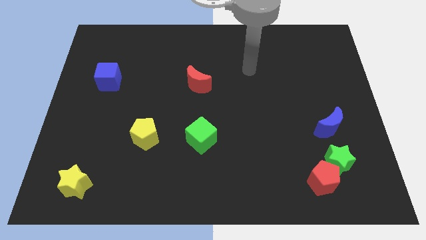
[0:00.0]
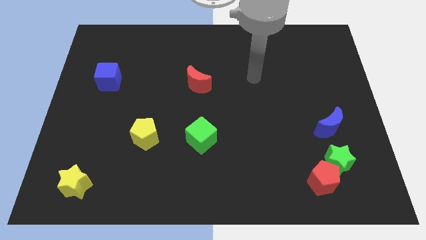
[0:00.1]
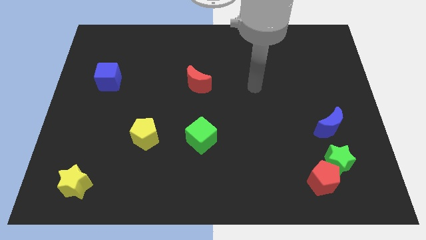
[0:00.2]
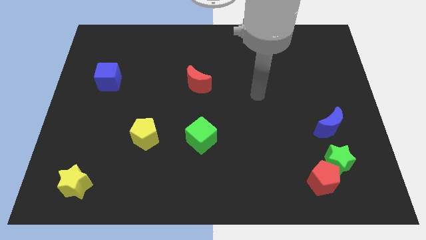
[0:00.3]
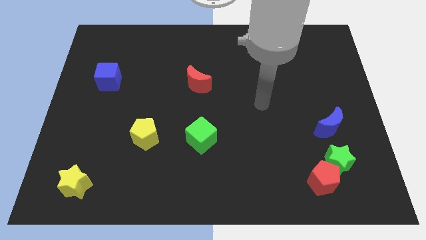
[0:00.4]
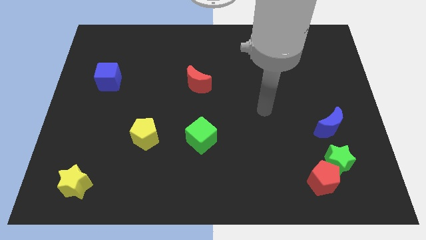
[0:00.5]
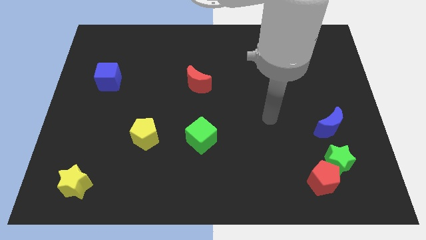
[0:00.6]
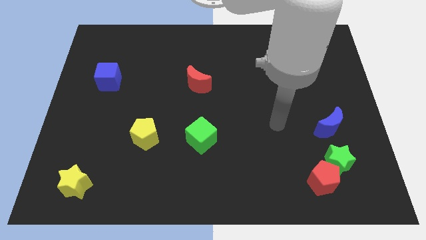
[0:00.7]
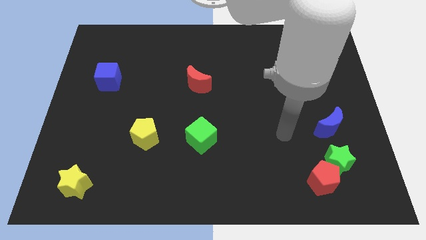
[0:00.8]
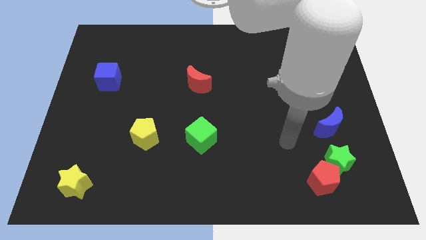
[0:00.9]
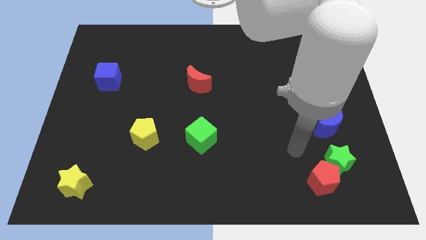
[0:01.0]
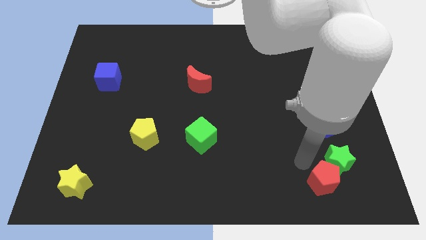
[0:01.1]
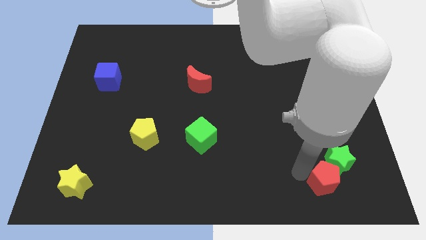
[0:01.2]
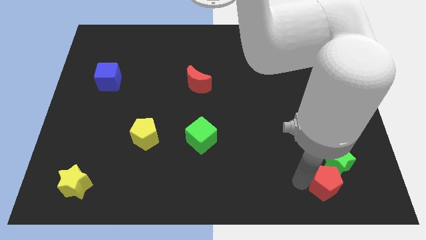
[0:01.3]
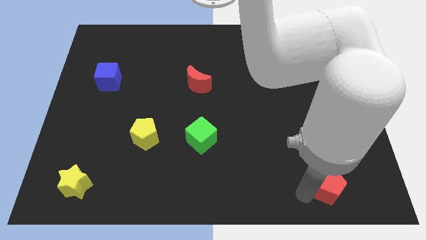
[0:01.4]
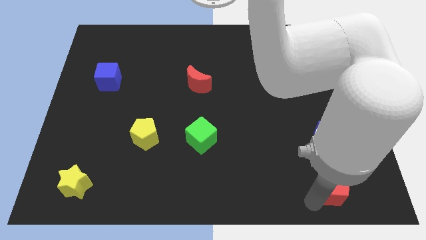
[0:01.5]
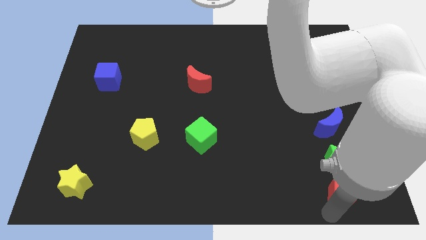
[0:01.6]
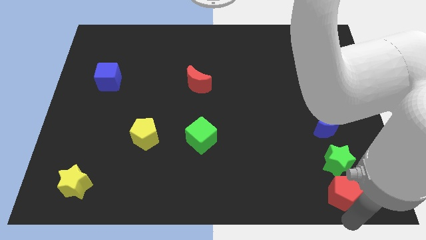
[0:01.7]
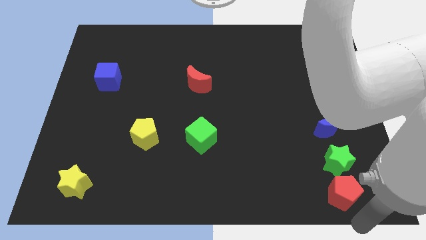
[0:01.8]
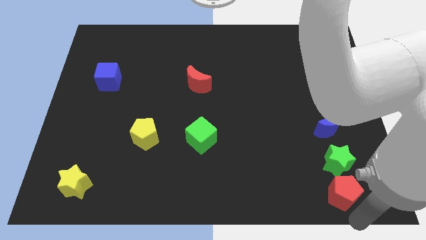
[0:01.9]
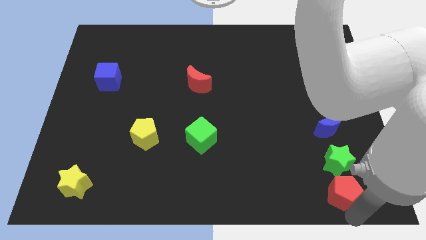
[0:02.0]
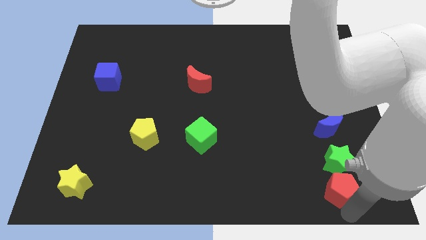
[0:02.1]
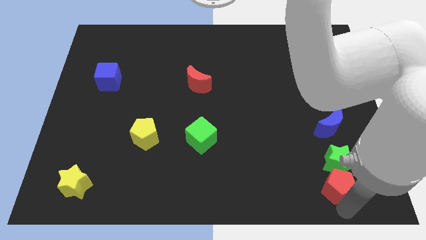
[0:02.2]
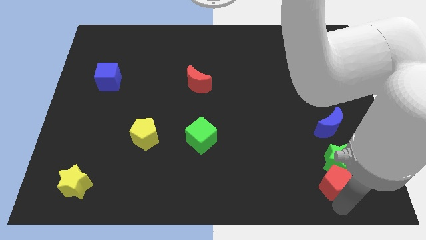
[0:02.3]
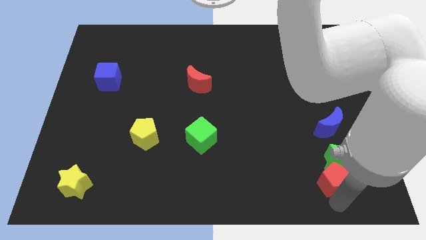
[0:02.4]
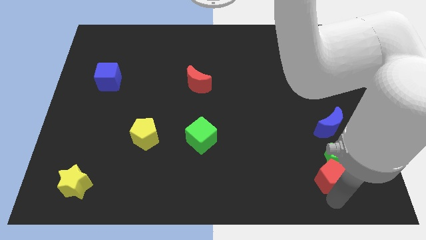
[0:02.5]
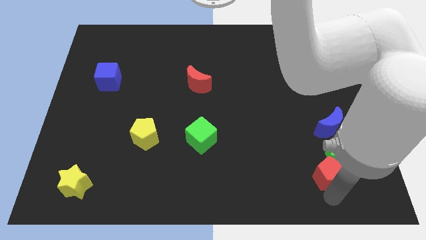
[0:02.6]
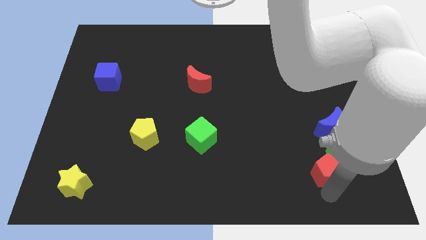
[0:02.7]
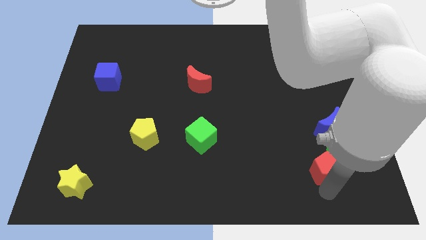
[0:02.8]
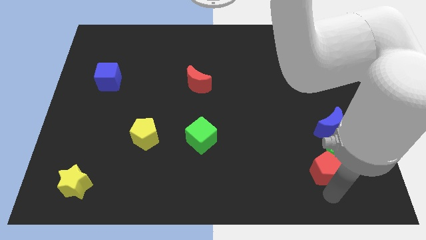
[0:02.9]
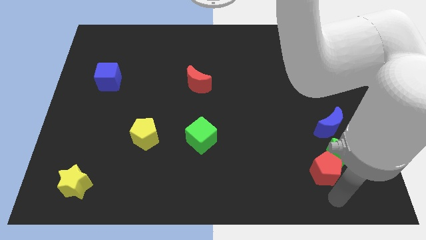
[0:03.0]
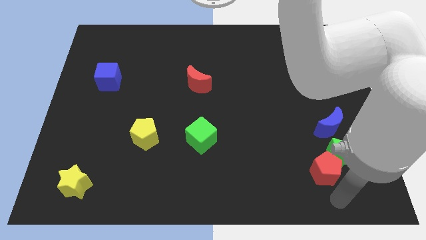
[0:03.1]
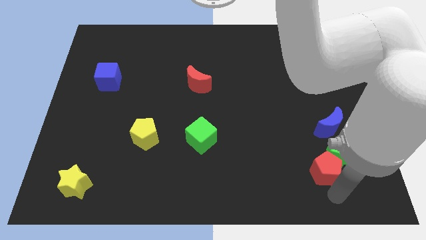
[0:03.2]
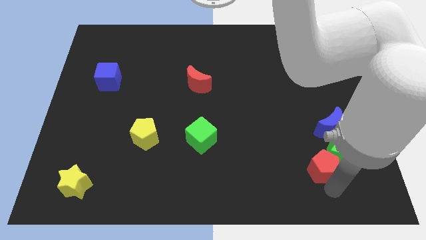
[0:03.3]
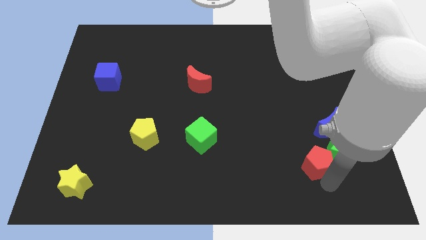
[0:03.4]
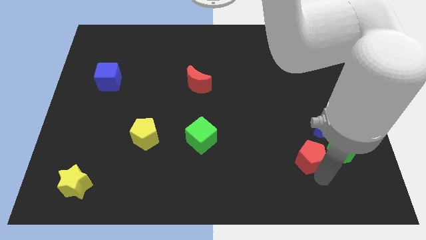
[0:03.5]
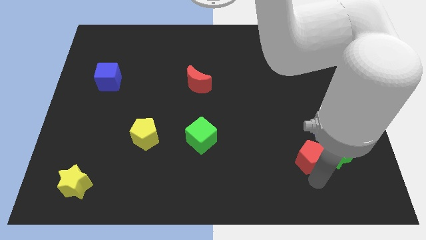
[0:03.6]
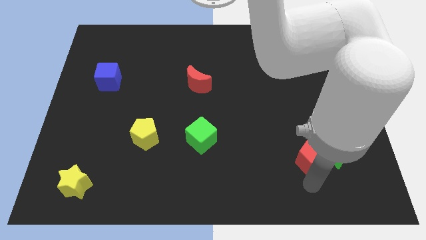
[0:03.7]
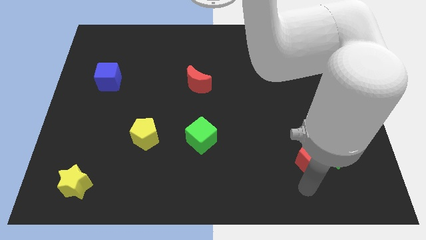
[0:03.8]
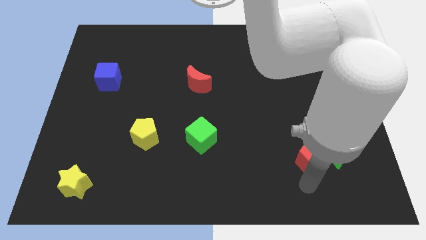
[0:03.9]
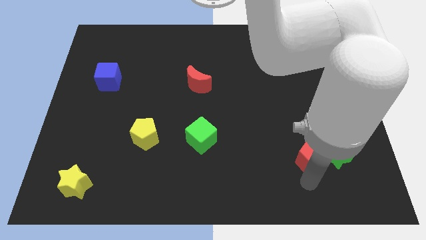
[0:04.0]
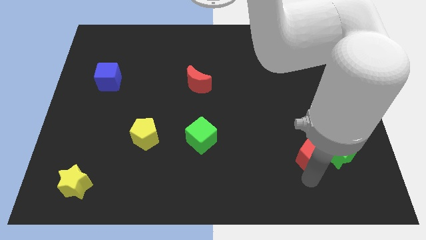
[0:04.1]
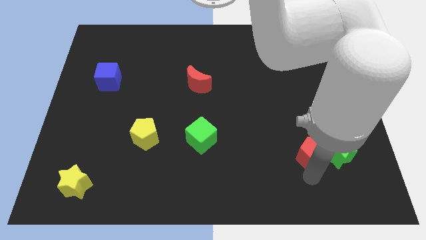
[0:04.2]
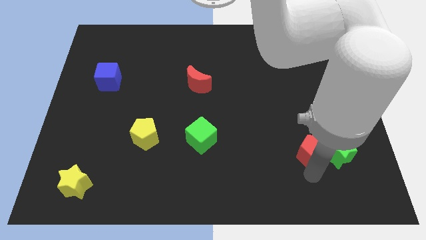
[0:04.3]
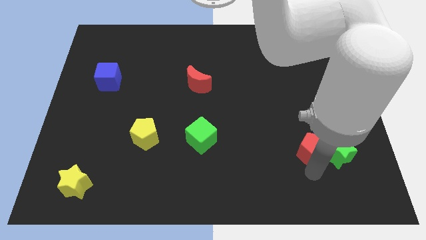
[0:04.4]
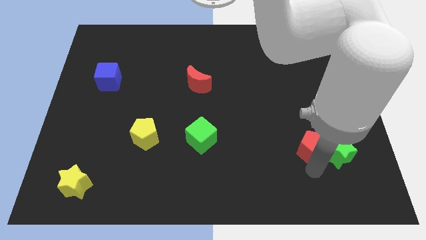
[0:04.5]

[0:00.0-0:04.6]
move the red pentagon somewhat up

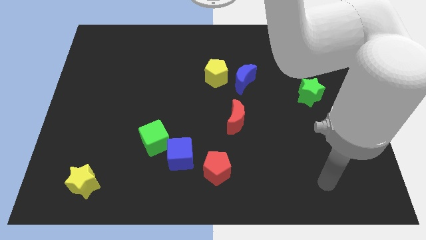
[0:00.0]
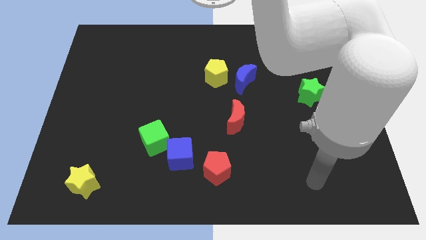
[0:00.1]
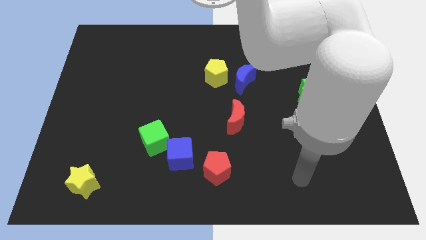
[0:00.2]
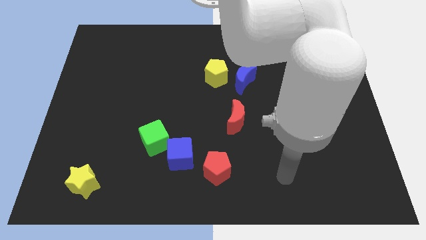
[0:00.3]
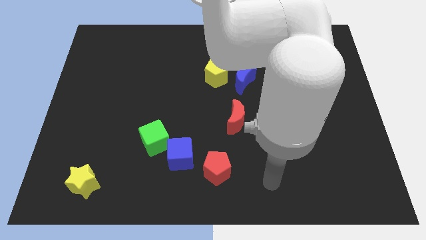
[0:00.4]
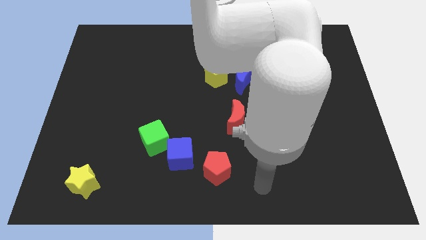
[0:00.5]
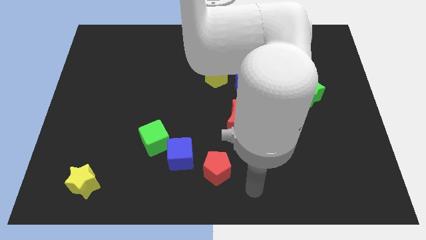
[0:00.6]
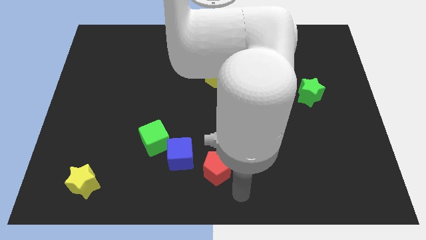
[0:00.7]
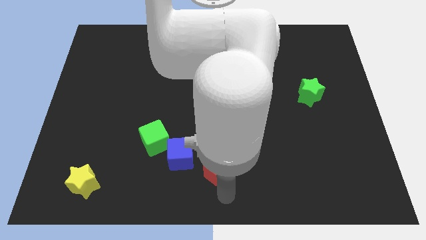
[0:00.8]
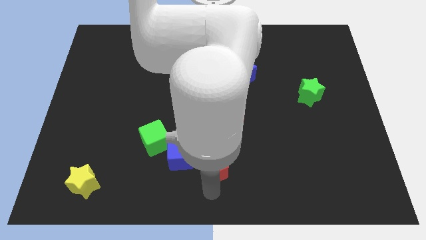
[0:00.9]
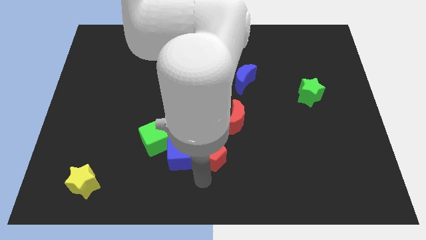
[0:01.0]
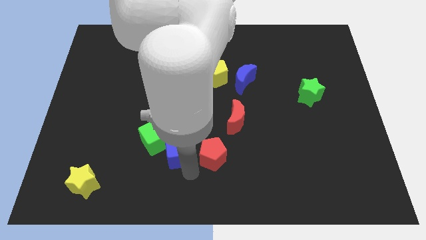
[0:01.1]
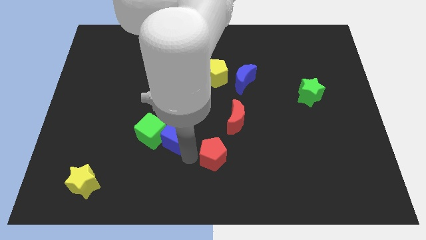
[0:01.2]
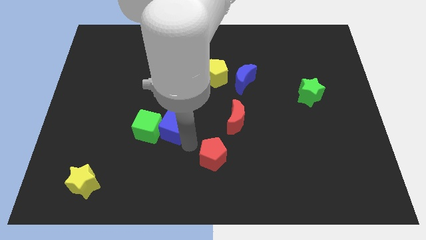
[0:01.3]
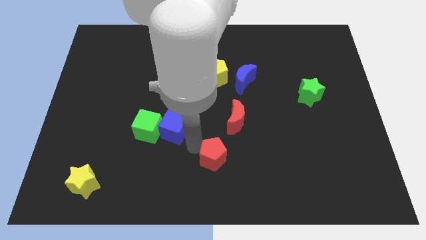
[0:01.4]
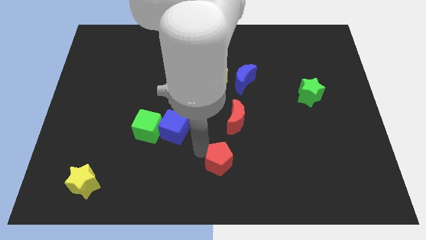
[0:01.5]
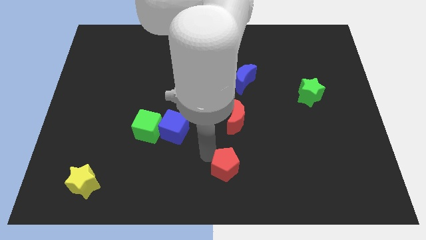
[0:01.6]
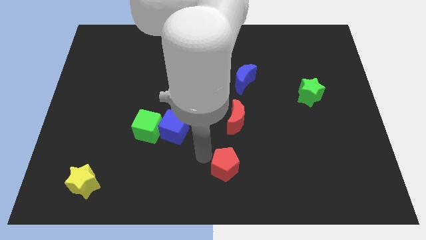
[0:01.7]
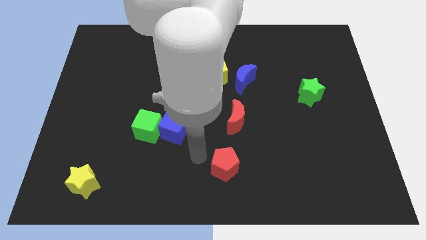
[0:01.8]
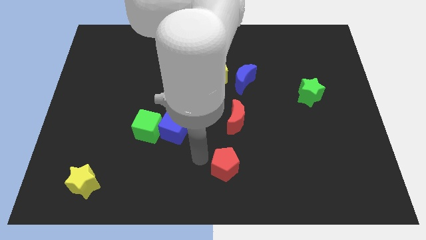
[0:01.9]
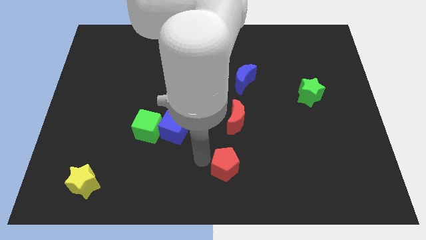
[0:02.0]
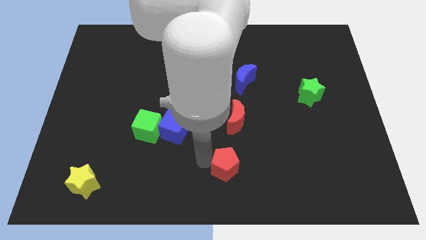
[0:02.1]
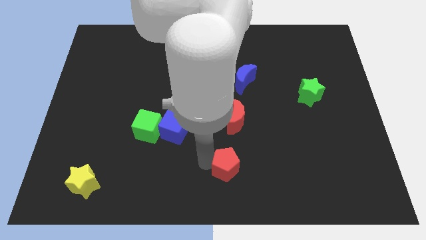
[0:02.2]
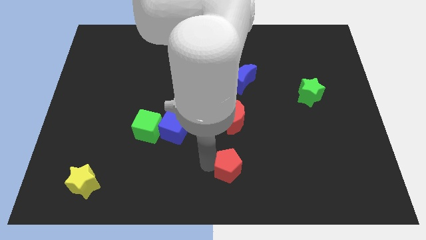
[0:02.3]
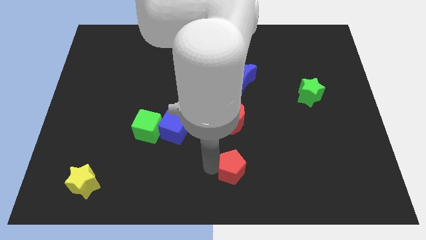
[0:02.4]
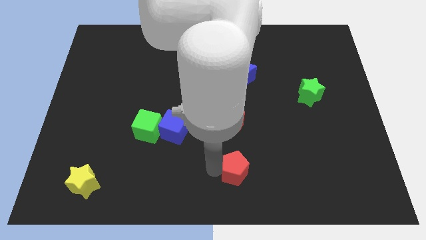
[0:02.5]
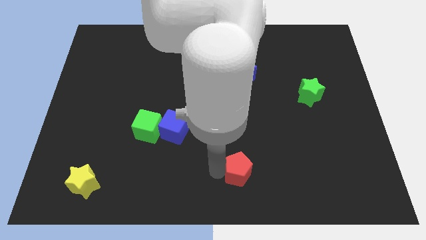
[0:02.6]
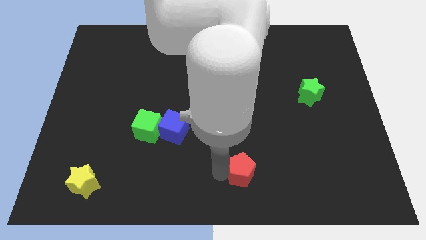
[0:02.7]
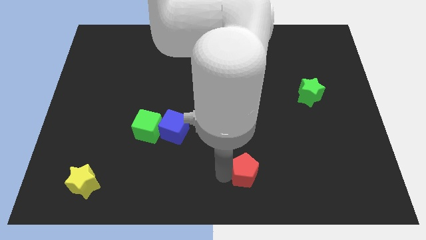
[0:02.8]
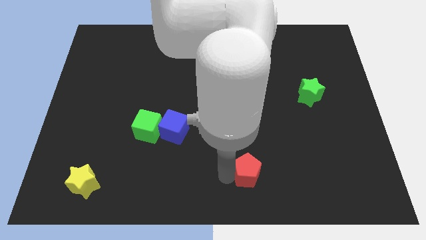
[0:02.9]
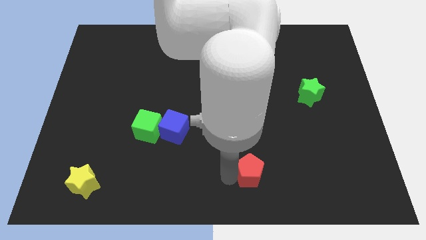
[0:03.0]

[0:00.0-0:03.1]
slightly move the red pentagon to the right

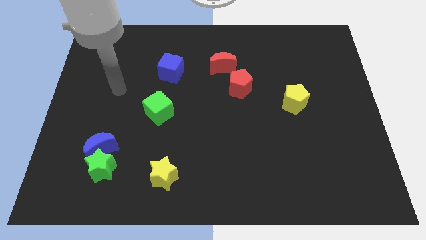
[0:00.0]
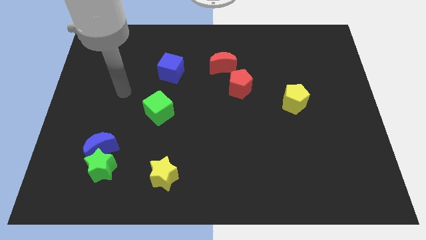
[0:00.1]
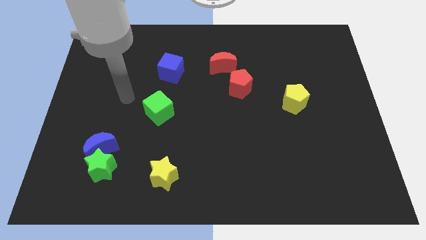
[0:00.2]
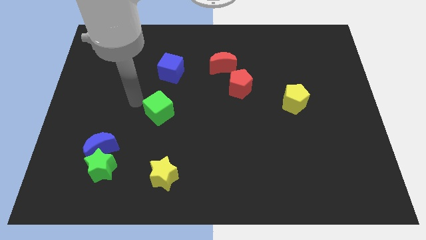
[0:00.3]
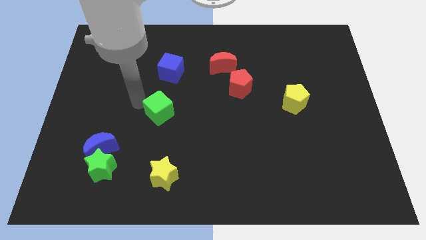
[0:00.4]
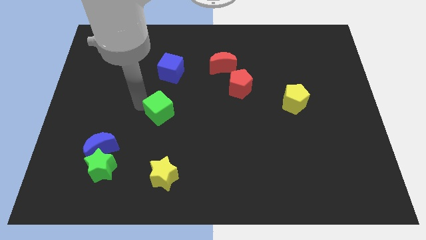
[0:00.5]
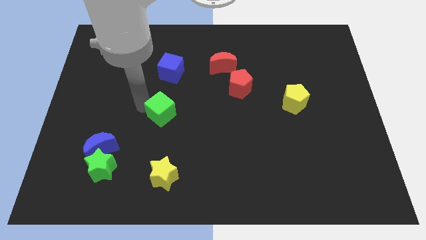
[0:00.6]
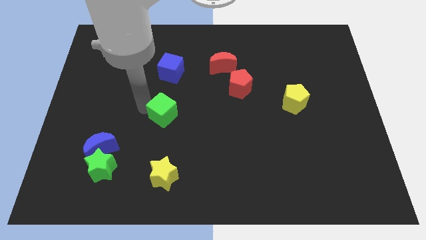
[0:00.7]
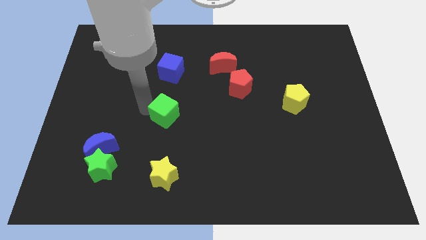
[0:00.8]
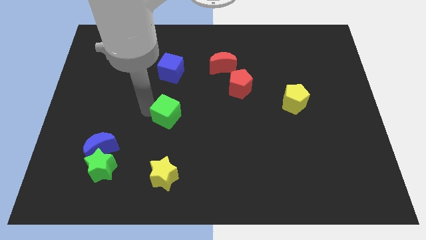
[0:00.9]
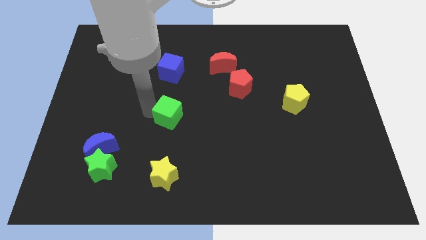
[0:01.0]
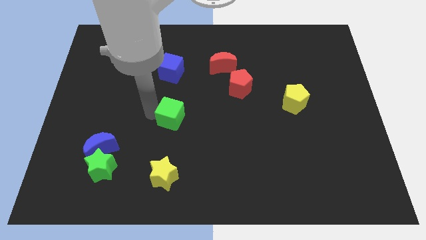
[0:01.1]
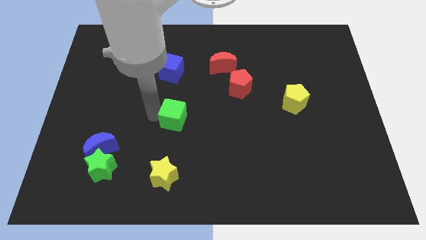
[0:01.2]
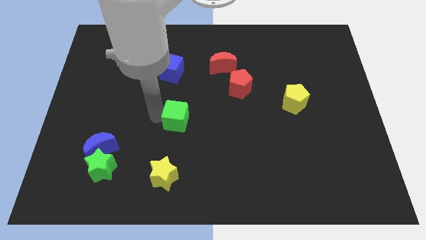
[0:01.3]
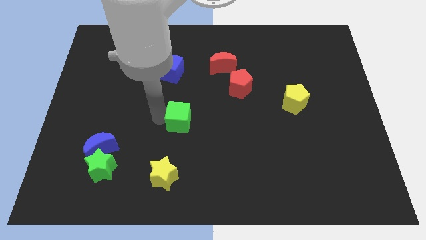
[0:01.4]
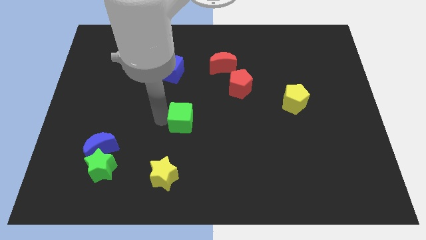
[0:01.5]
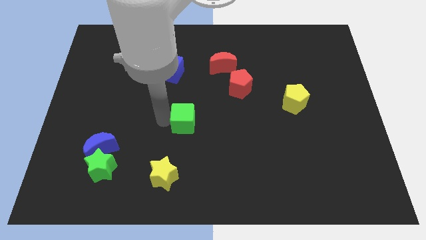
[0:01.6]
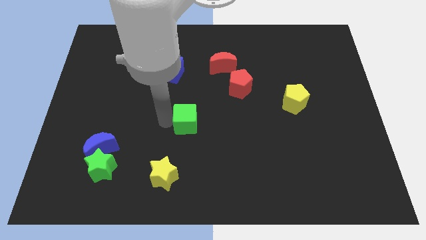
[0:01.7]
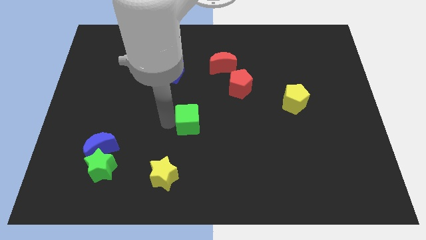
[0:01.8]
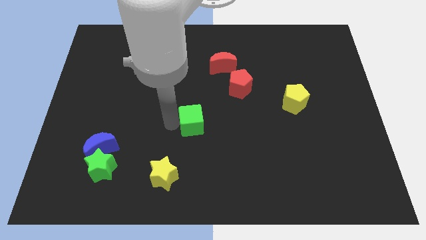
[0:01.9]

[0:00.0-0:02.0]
push the green cube a bit right
